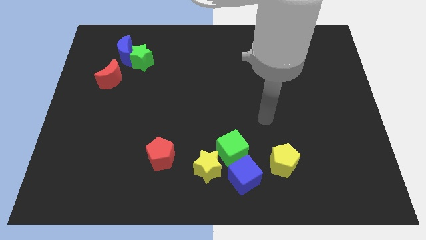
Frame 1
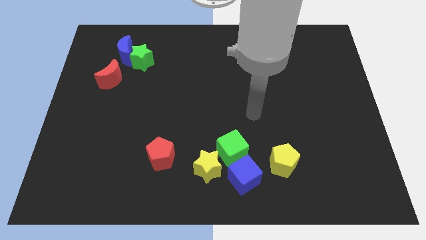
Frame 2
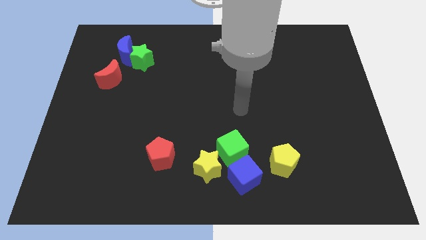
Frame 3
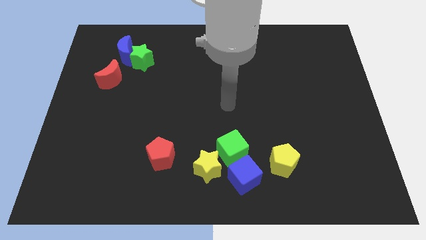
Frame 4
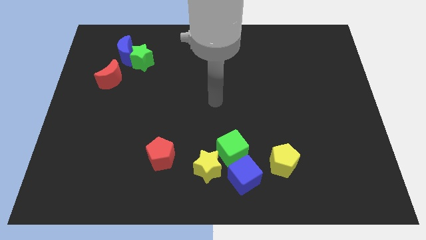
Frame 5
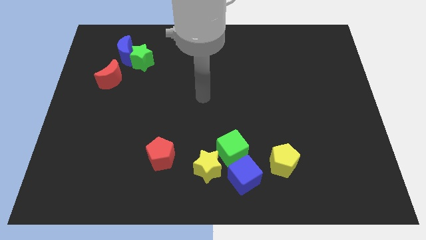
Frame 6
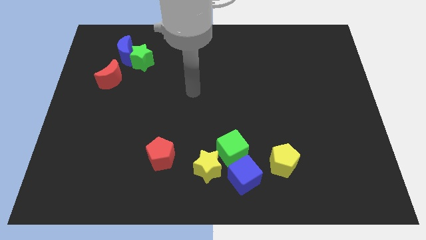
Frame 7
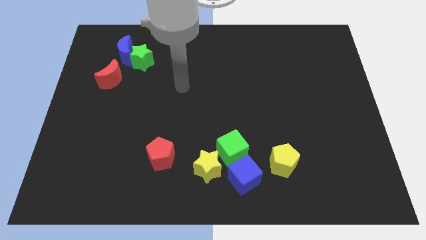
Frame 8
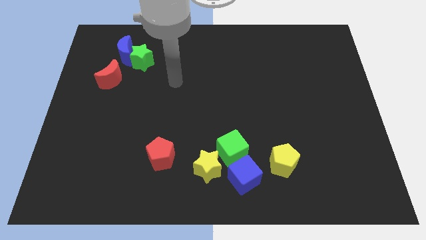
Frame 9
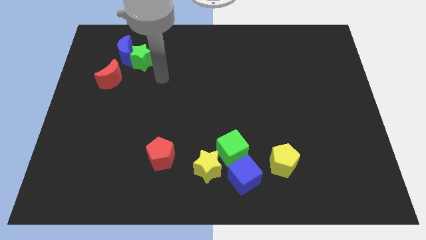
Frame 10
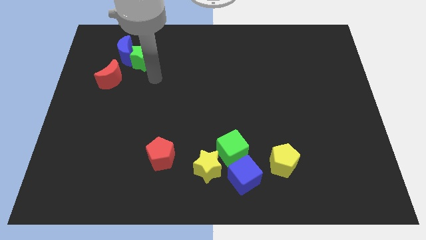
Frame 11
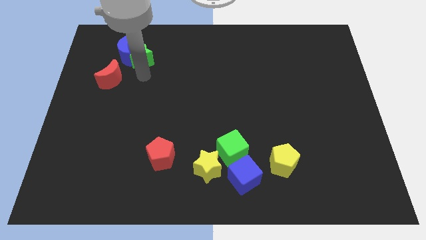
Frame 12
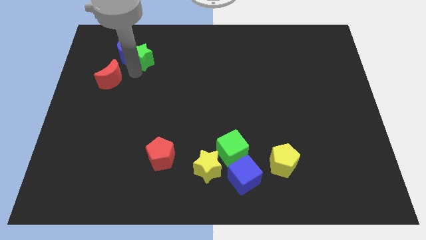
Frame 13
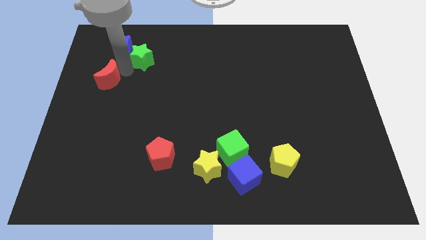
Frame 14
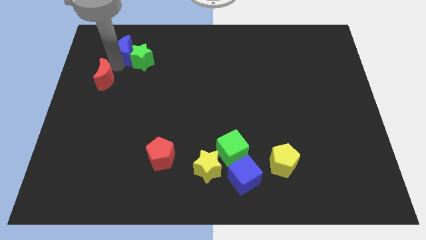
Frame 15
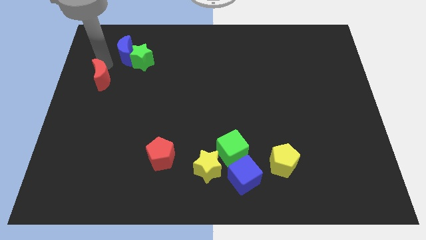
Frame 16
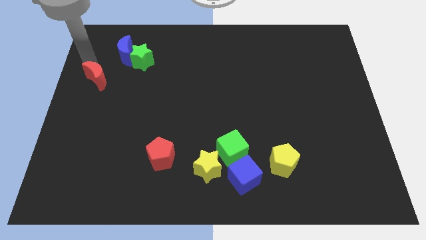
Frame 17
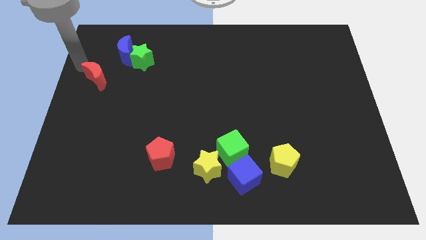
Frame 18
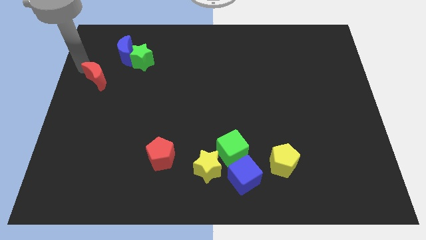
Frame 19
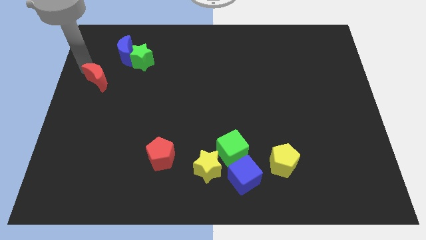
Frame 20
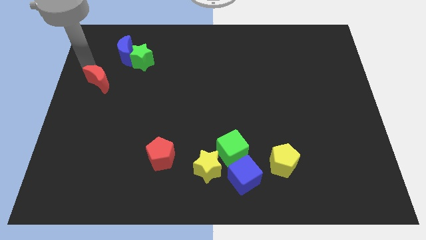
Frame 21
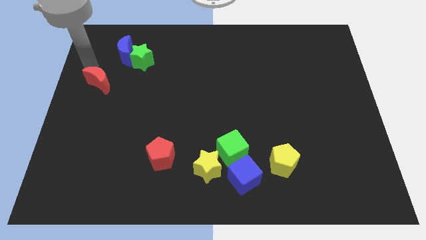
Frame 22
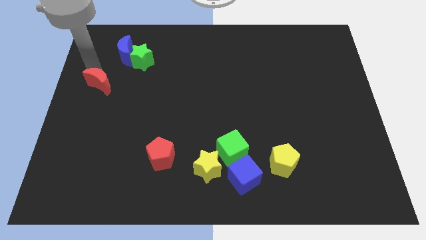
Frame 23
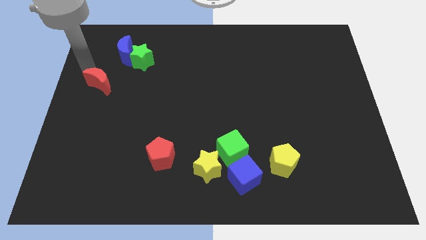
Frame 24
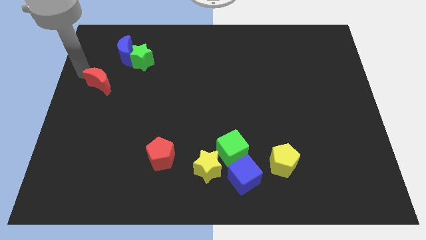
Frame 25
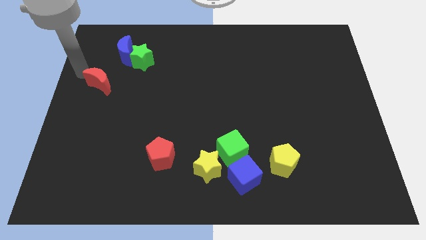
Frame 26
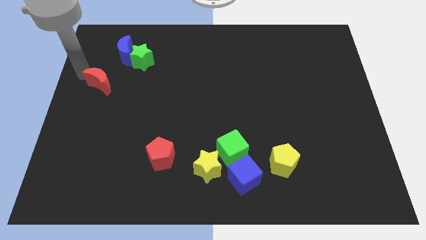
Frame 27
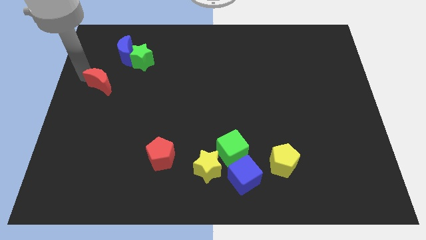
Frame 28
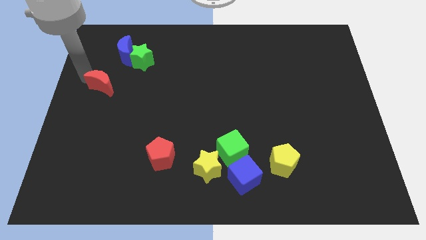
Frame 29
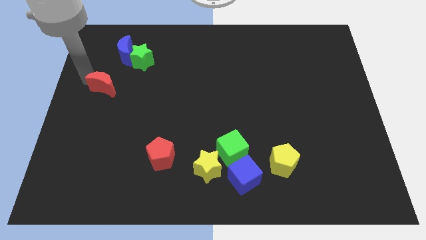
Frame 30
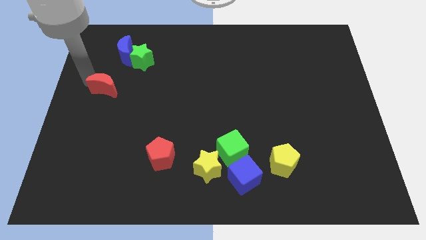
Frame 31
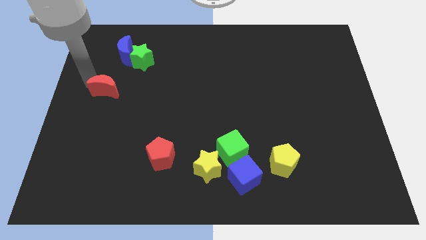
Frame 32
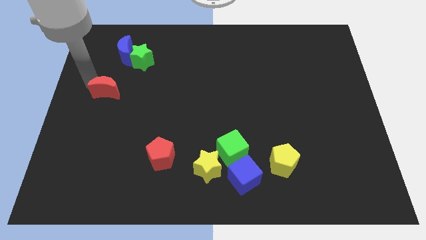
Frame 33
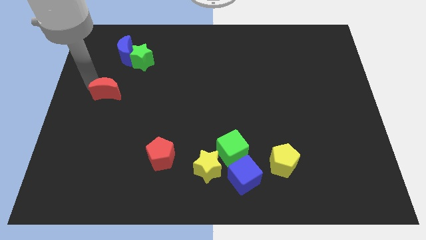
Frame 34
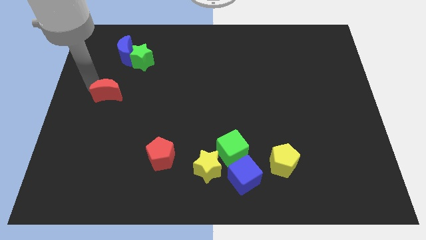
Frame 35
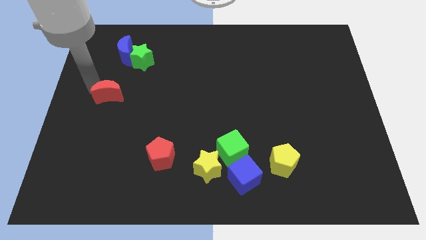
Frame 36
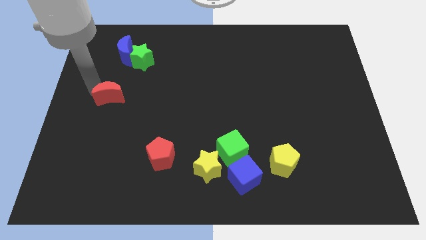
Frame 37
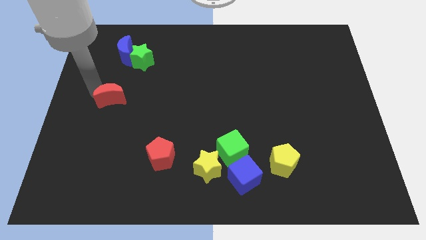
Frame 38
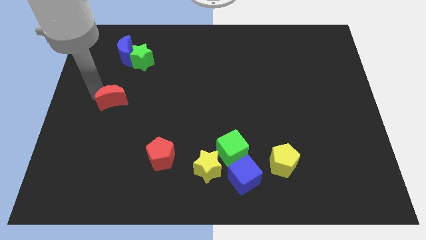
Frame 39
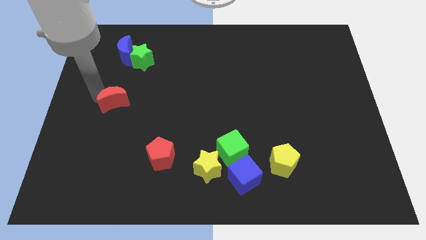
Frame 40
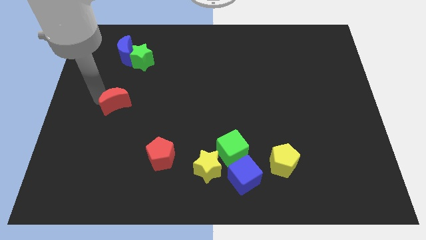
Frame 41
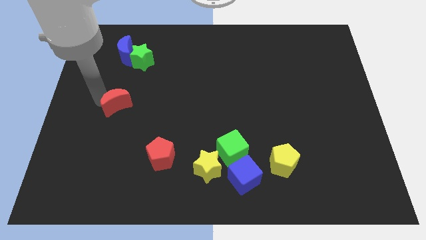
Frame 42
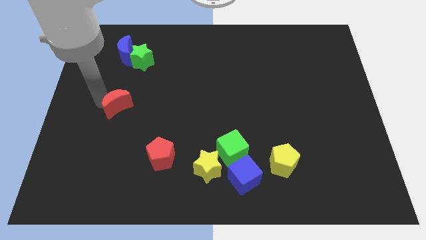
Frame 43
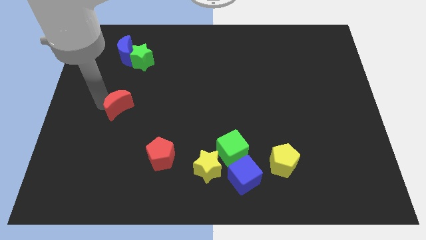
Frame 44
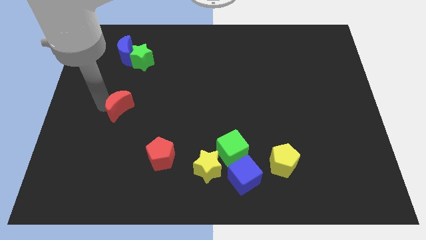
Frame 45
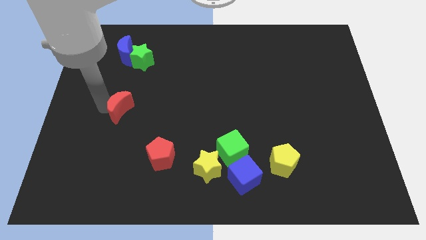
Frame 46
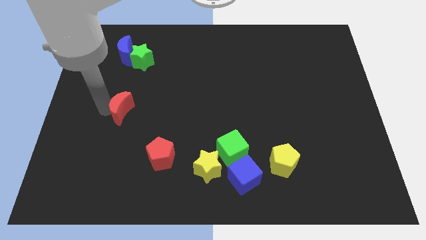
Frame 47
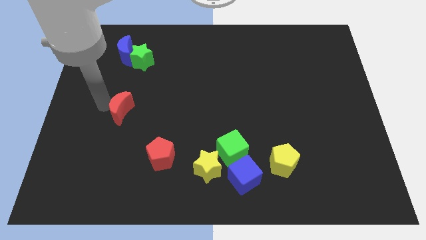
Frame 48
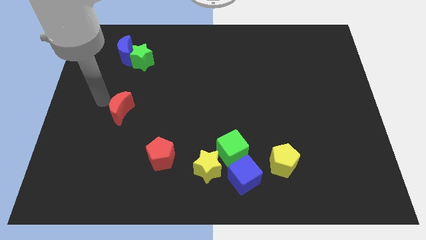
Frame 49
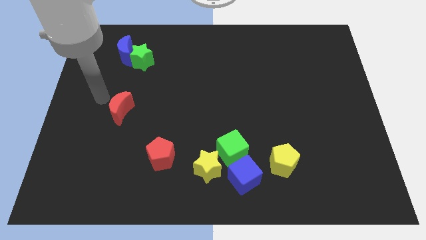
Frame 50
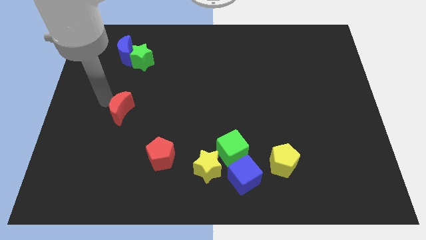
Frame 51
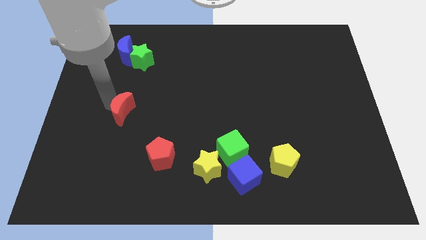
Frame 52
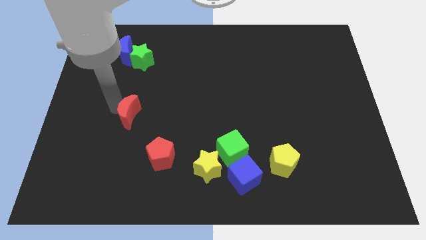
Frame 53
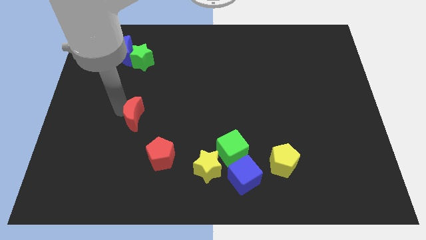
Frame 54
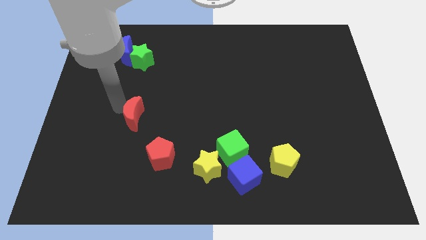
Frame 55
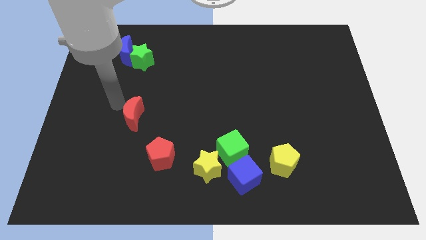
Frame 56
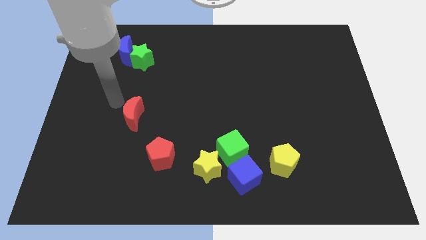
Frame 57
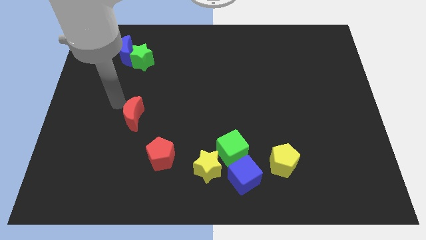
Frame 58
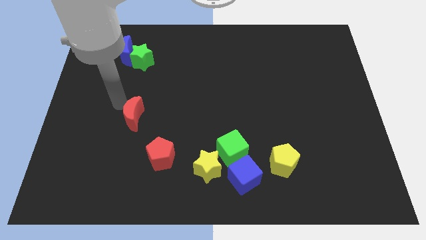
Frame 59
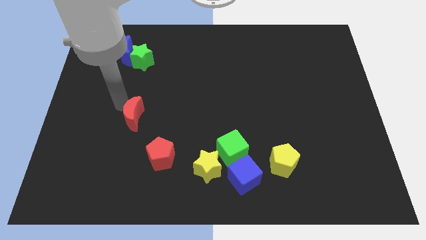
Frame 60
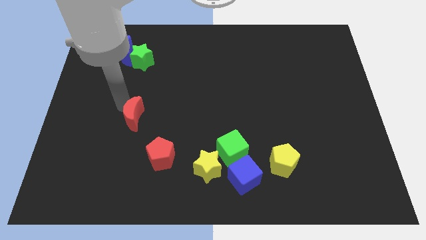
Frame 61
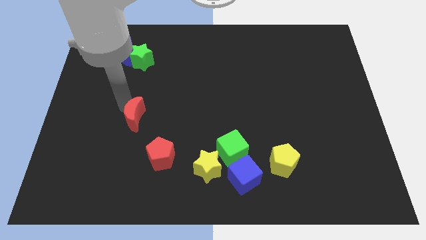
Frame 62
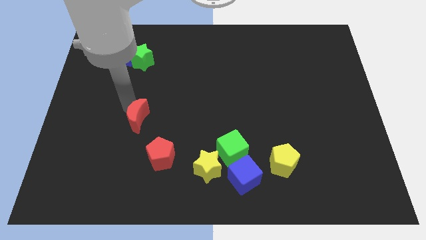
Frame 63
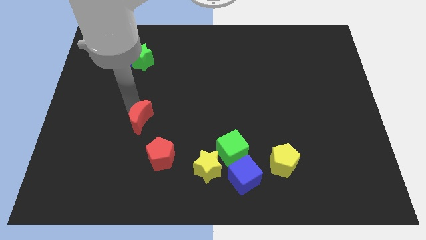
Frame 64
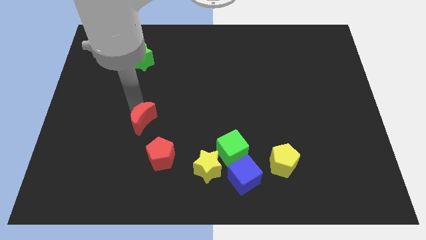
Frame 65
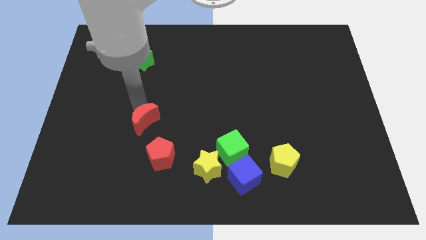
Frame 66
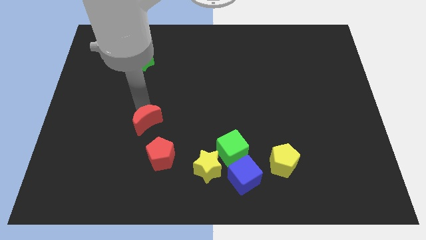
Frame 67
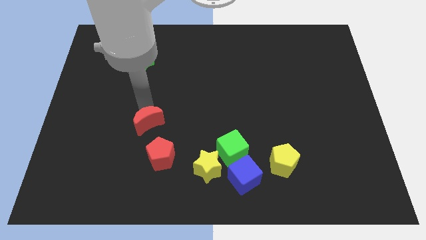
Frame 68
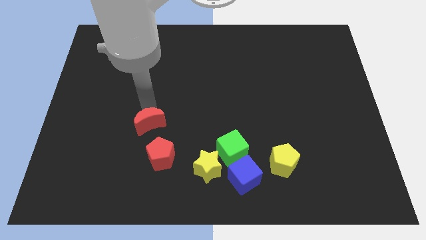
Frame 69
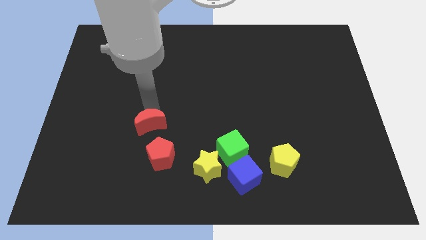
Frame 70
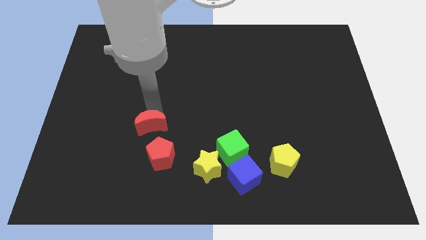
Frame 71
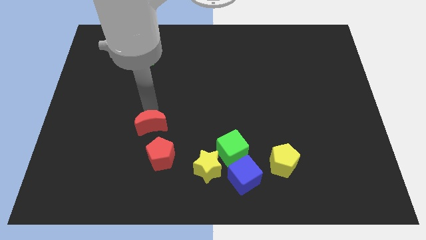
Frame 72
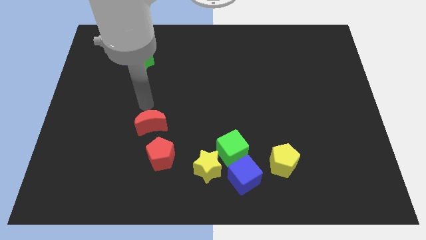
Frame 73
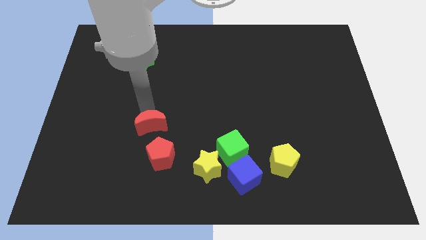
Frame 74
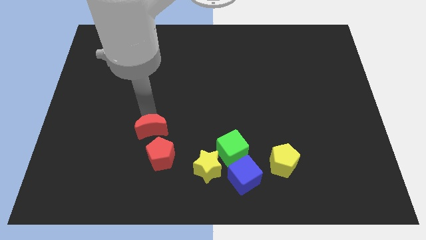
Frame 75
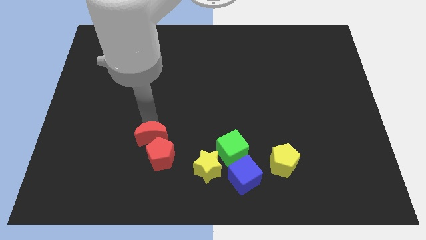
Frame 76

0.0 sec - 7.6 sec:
push the red moon towards the red pentagon
